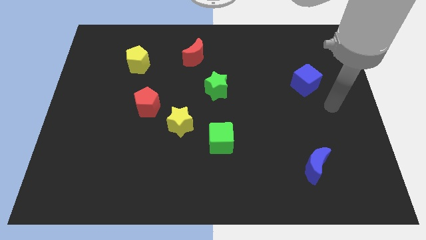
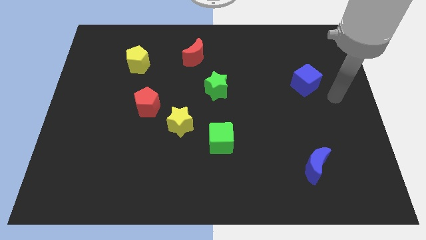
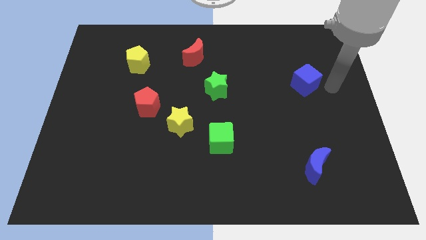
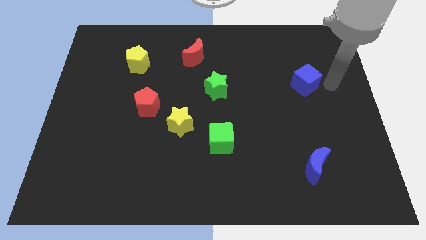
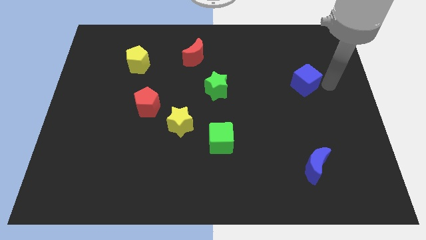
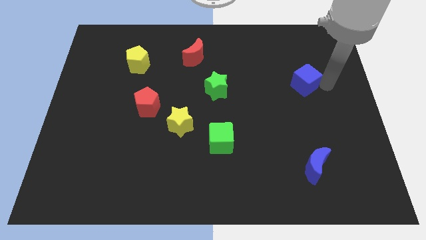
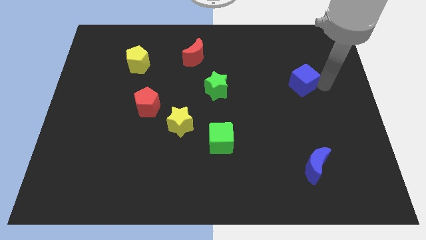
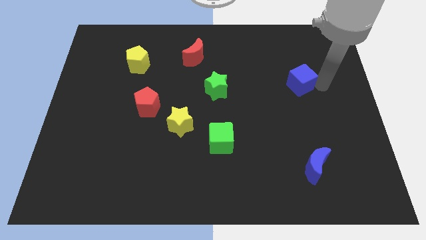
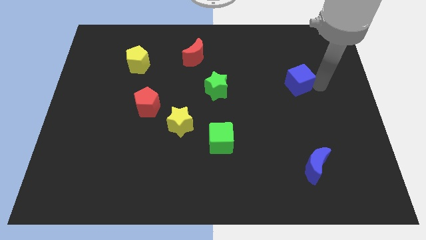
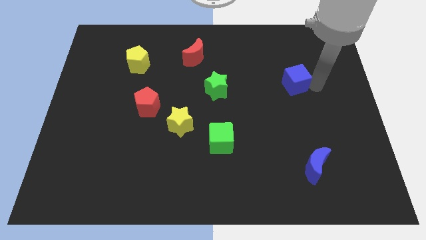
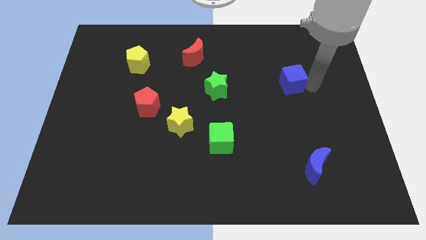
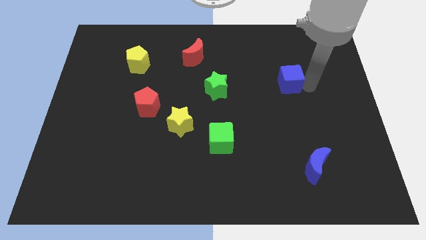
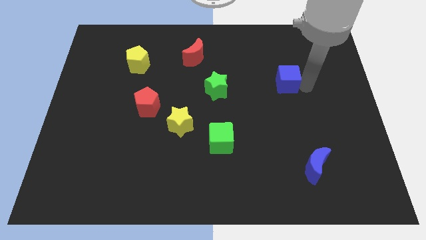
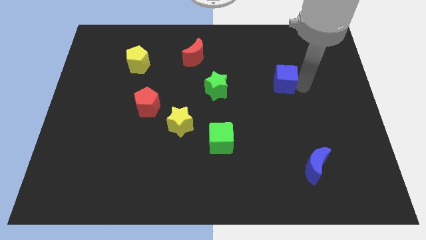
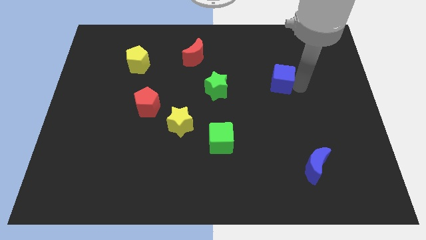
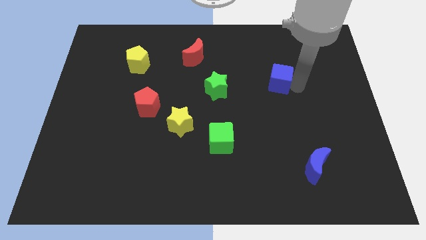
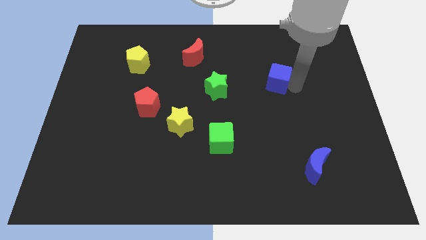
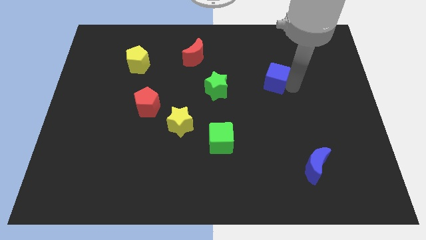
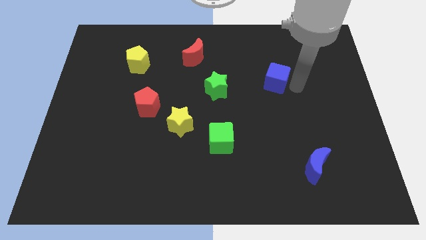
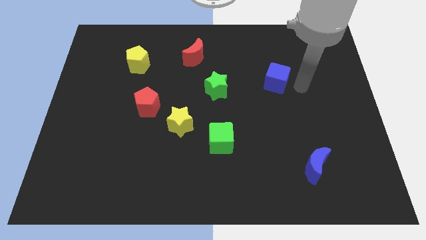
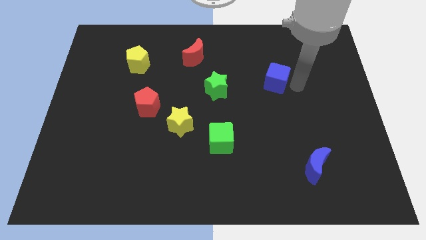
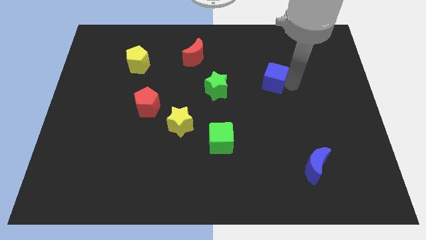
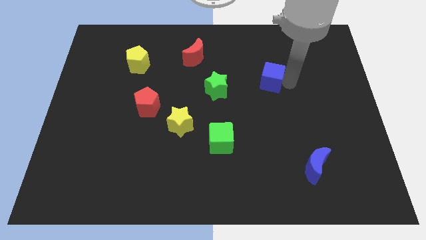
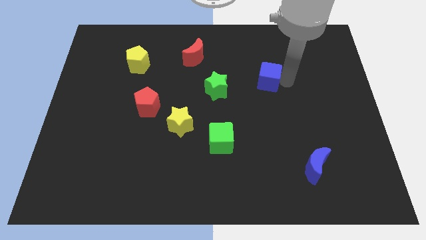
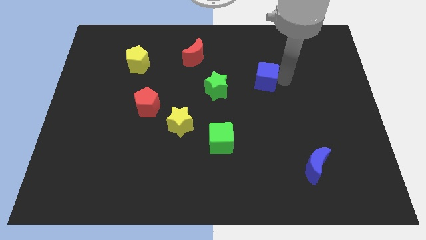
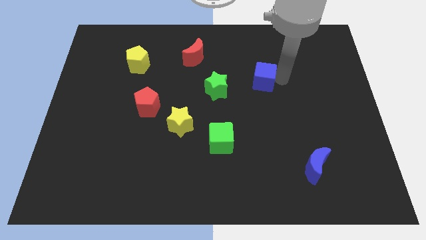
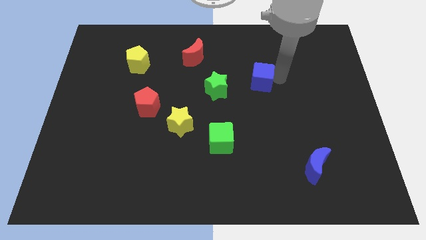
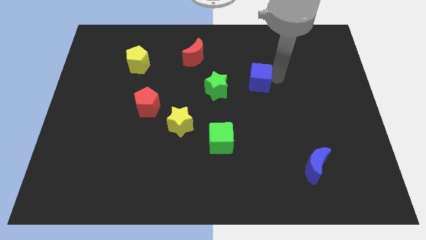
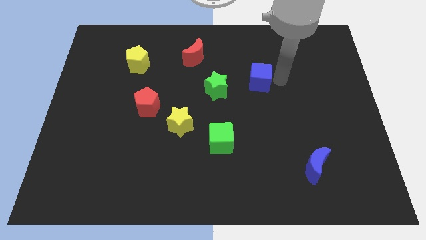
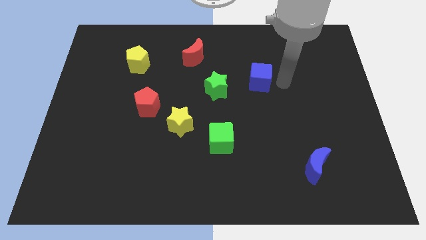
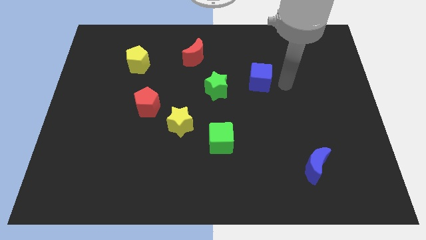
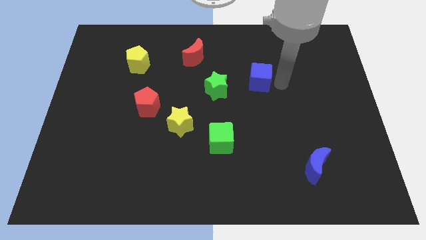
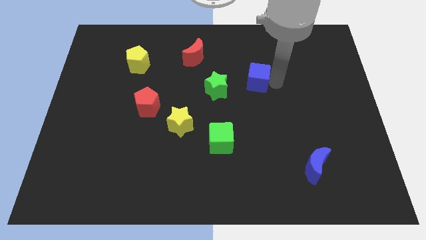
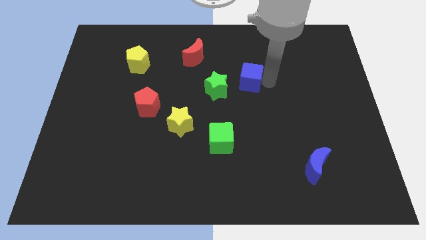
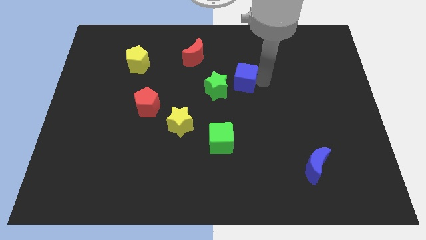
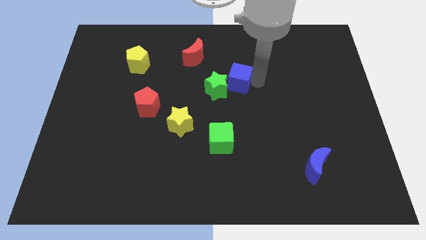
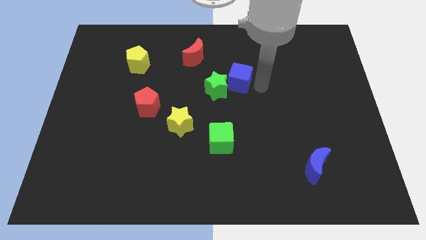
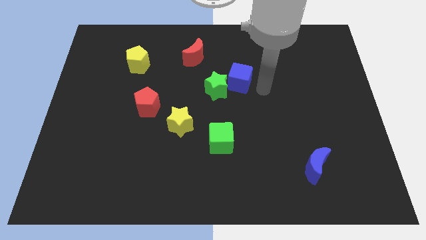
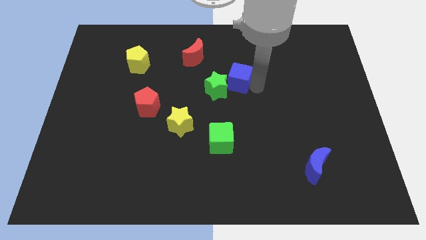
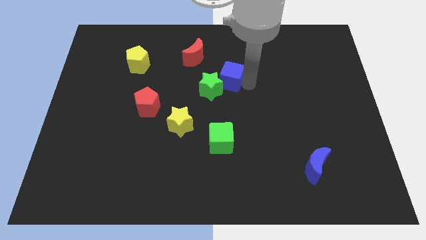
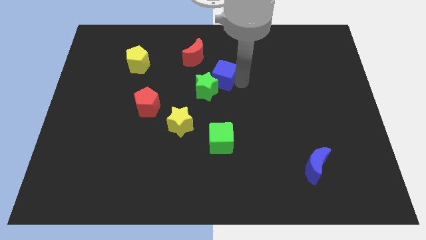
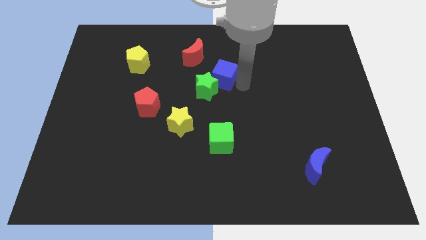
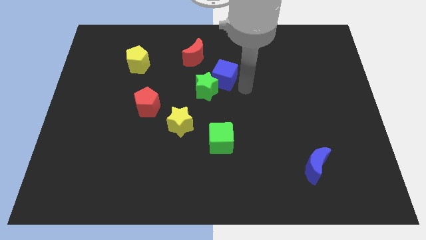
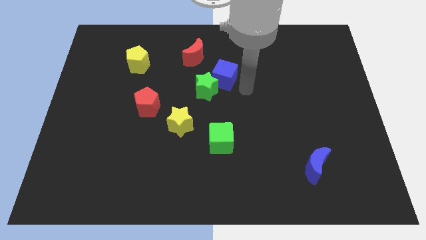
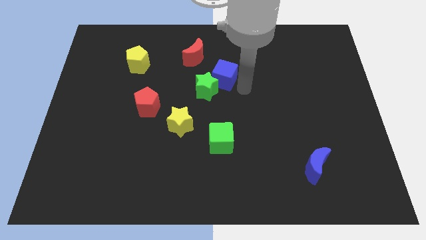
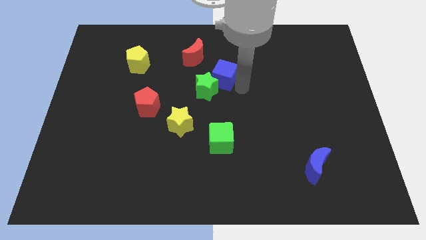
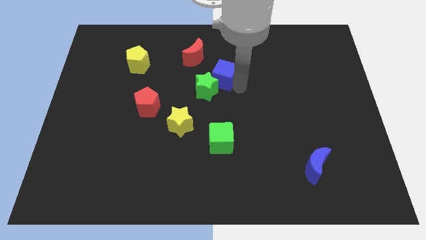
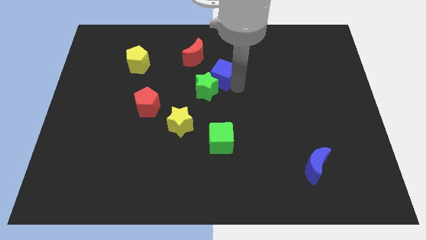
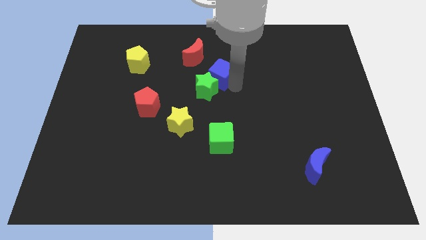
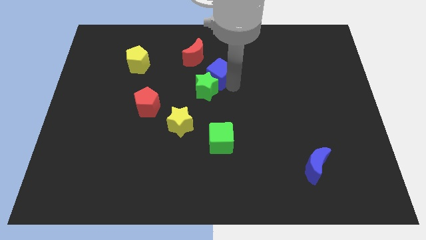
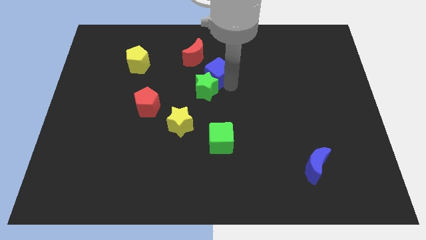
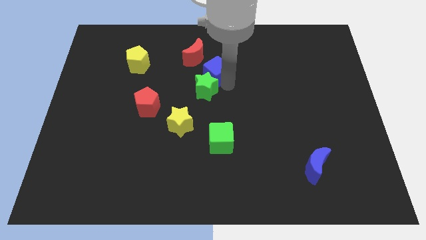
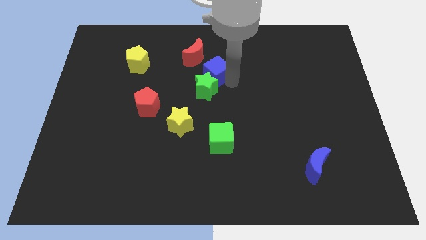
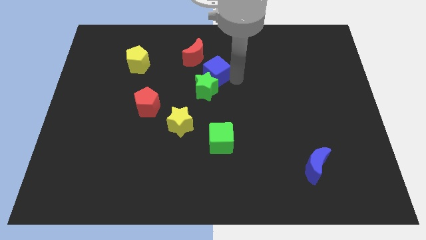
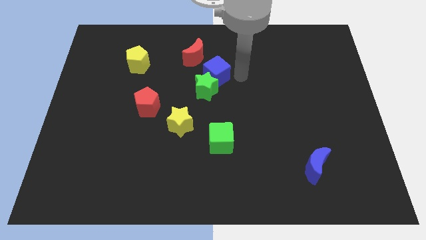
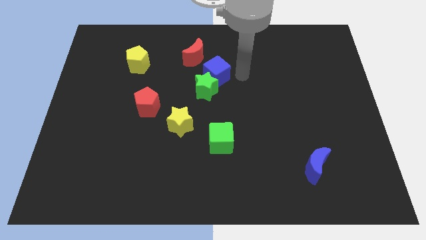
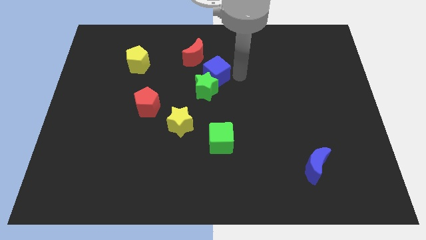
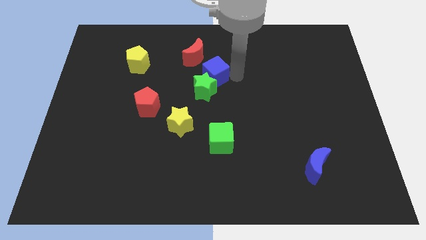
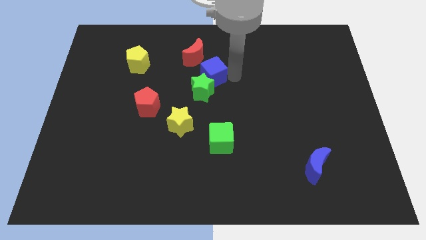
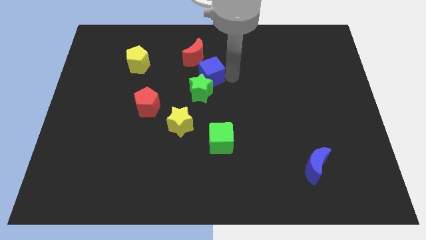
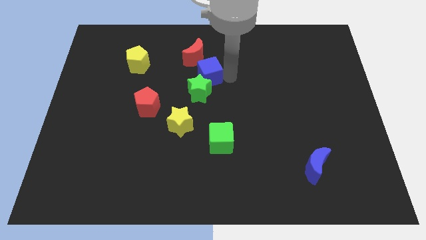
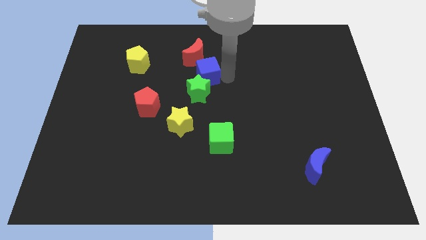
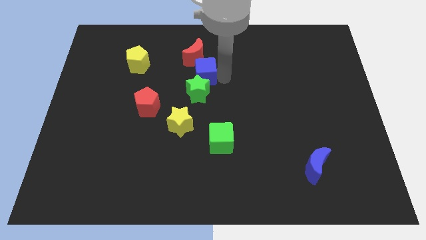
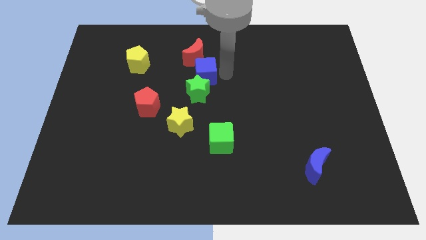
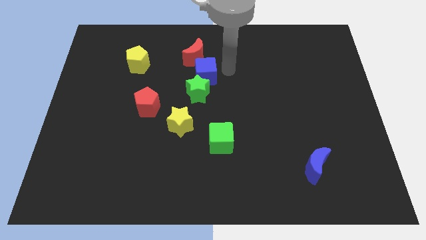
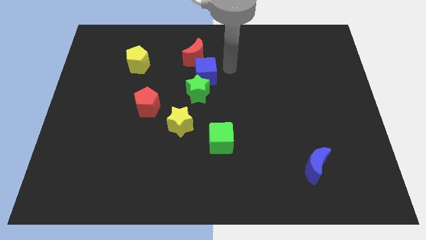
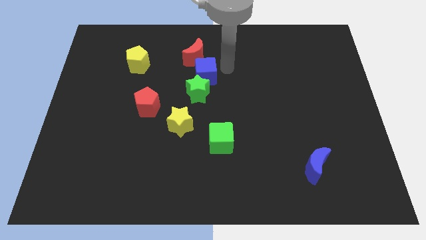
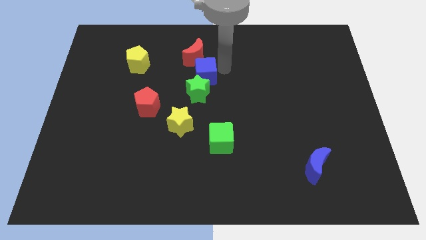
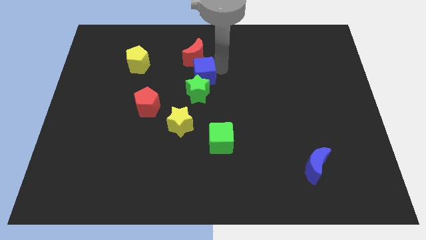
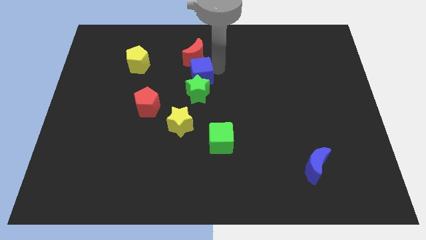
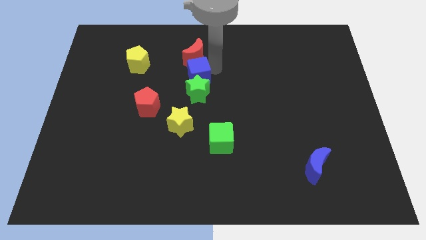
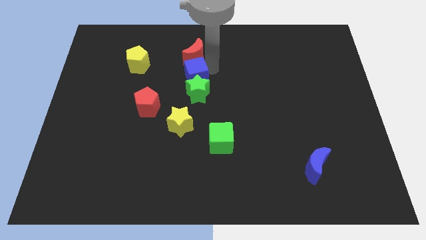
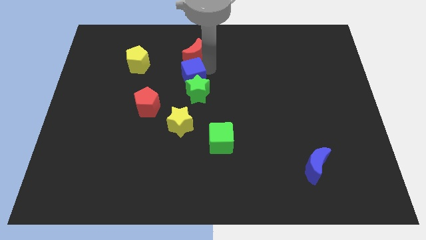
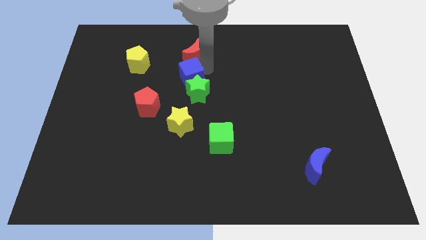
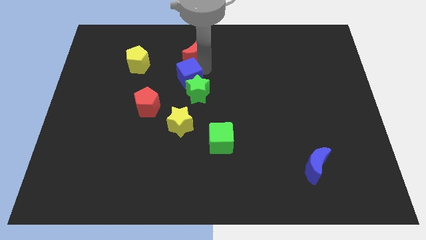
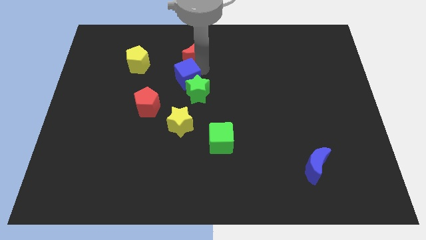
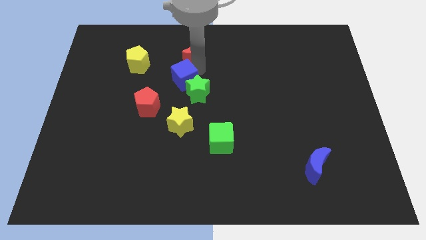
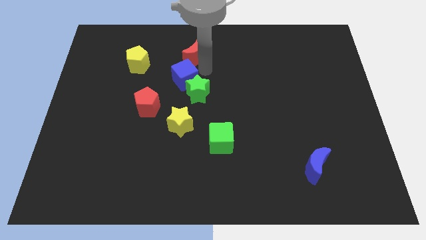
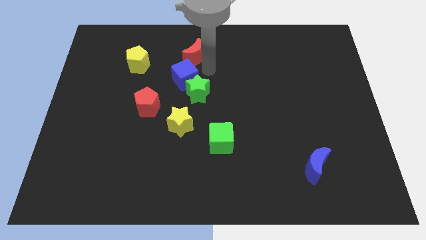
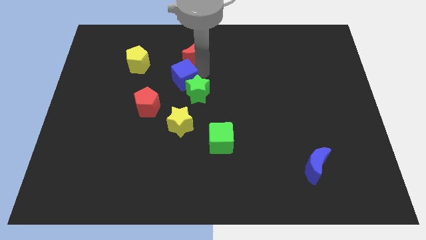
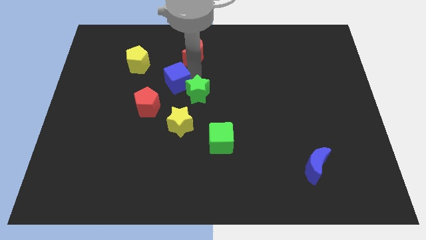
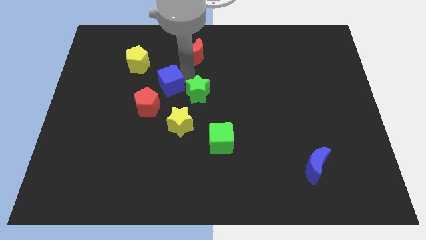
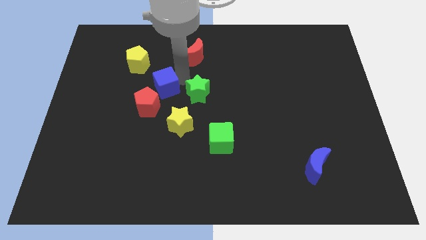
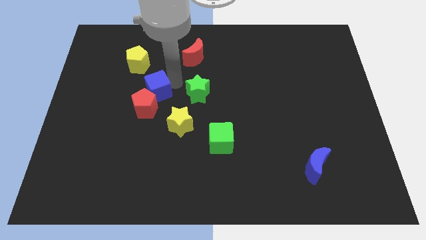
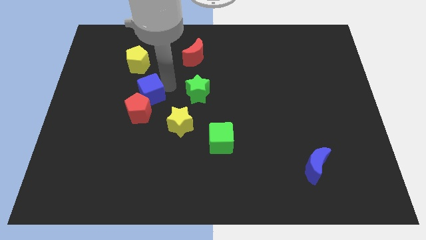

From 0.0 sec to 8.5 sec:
put the blue cube to the bottom of the yellow pentagon
